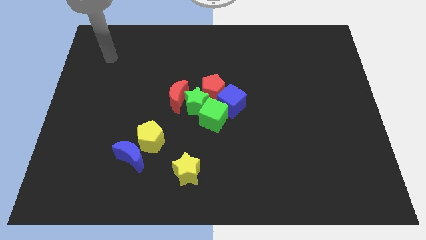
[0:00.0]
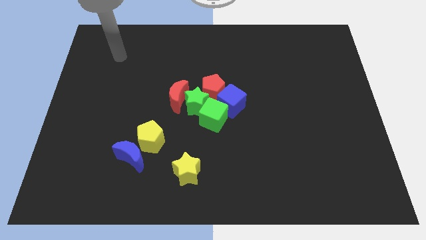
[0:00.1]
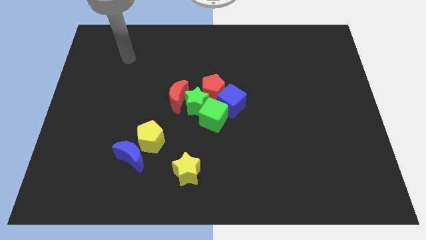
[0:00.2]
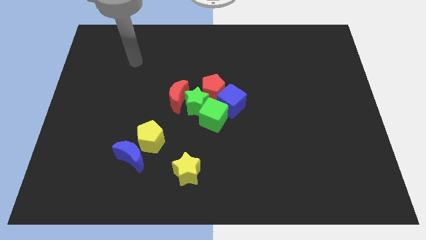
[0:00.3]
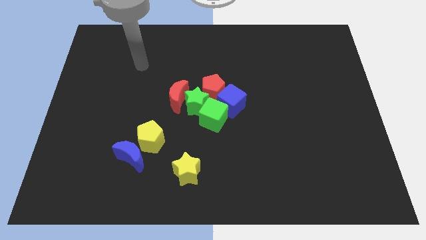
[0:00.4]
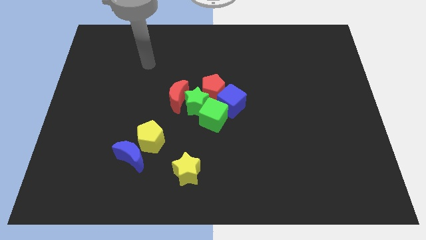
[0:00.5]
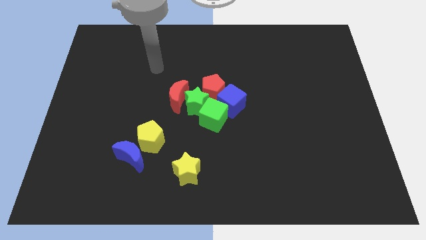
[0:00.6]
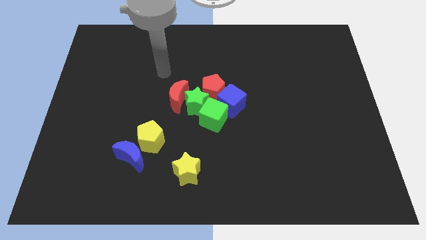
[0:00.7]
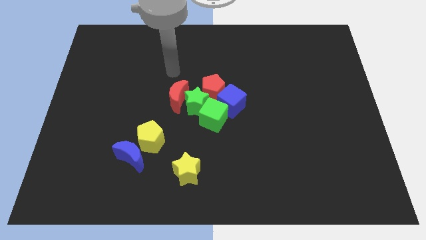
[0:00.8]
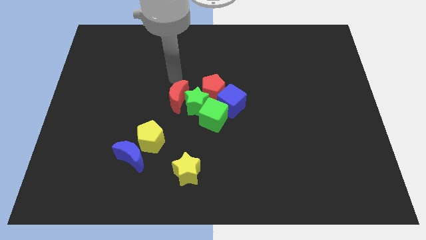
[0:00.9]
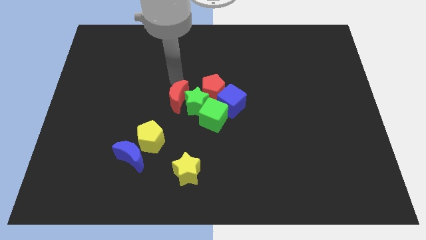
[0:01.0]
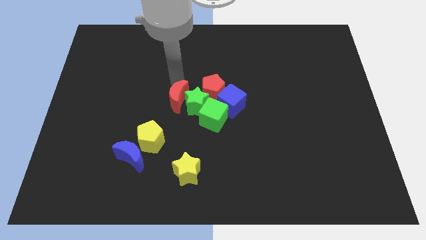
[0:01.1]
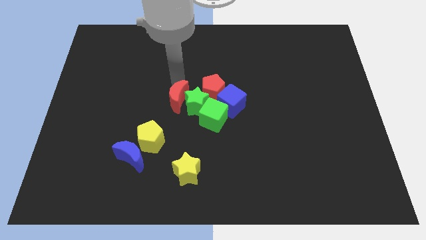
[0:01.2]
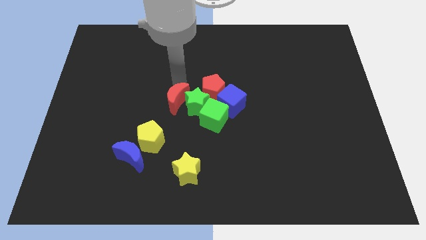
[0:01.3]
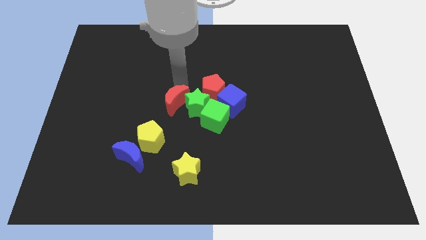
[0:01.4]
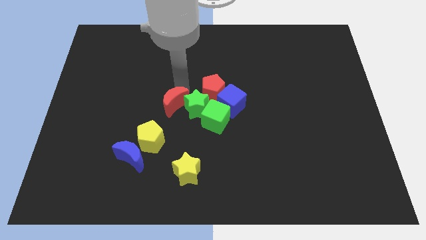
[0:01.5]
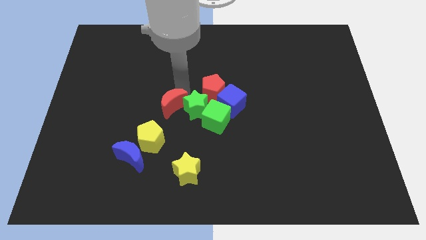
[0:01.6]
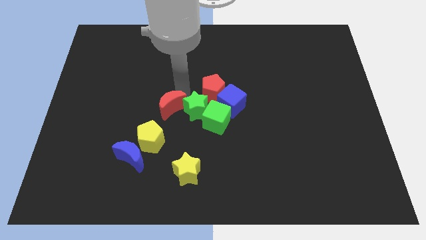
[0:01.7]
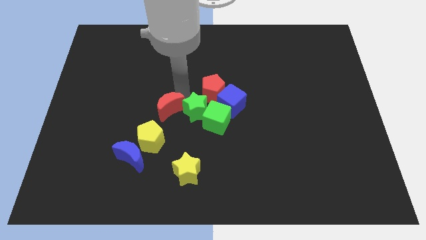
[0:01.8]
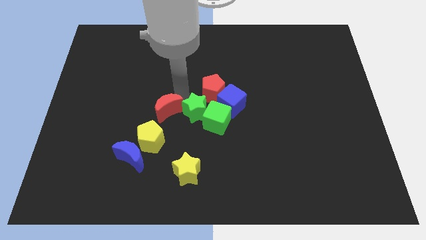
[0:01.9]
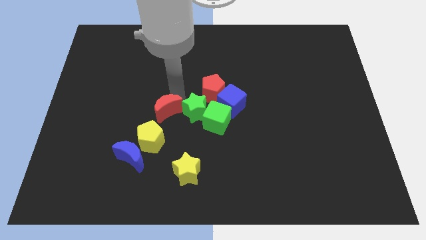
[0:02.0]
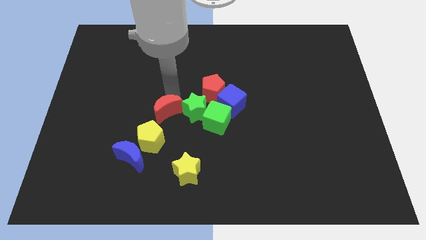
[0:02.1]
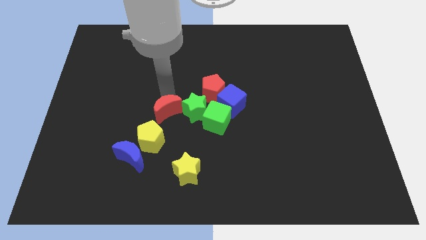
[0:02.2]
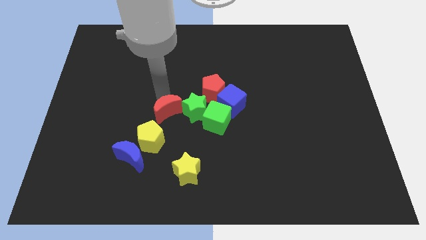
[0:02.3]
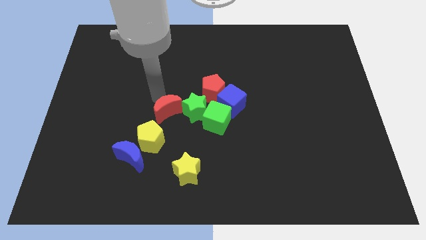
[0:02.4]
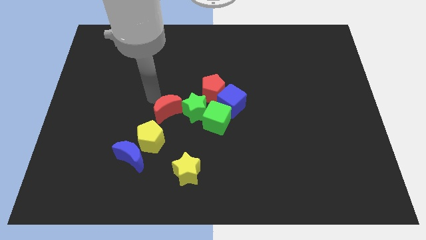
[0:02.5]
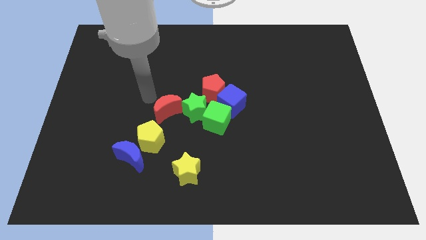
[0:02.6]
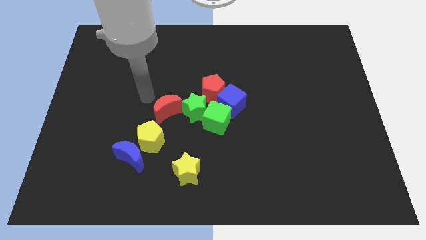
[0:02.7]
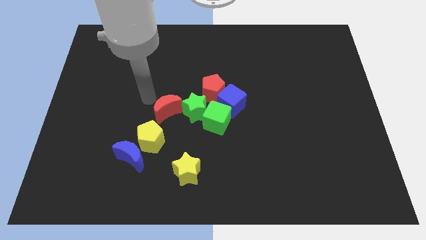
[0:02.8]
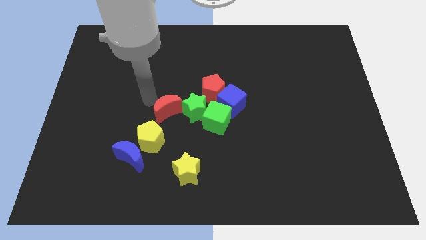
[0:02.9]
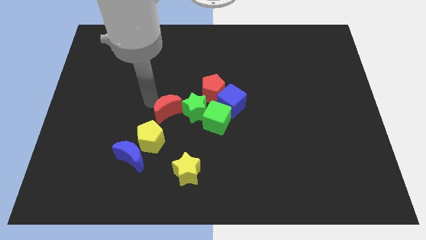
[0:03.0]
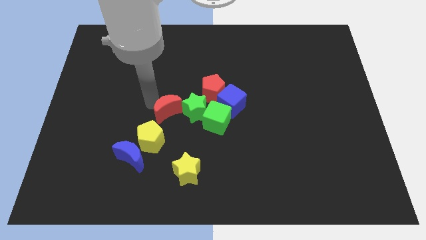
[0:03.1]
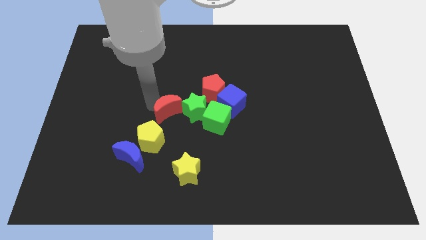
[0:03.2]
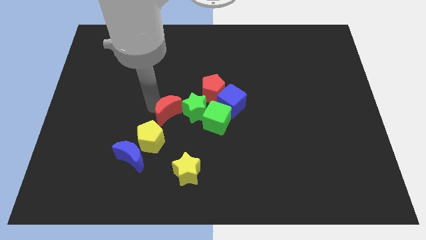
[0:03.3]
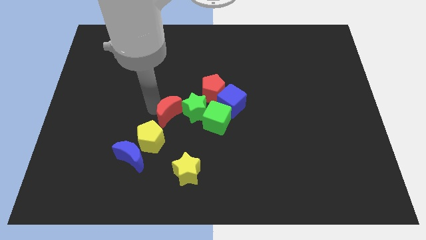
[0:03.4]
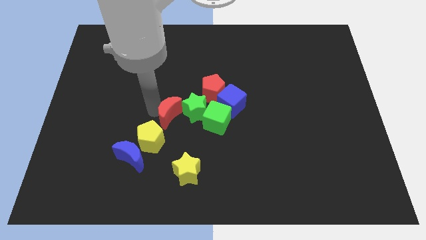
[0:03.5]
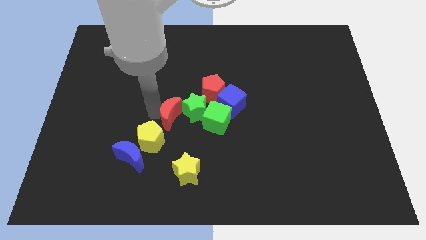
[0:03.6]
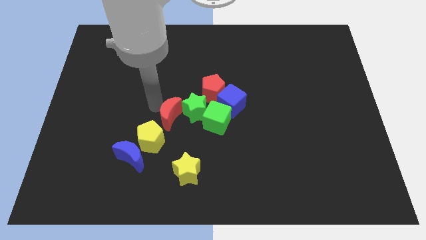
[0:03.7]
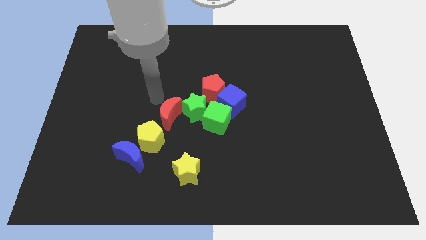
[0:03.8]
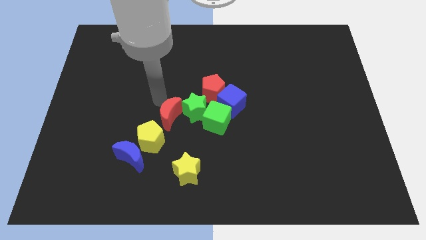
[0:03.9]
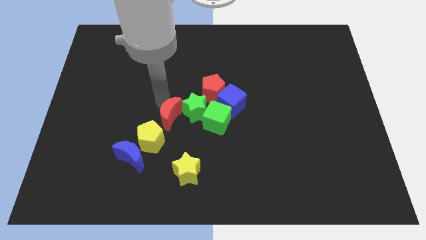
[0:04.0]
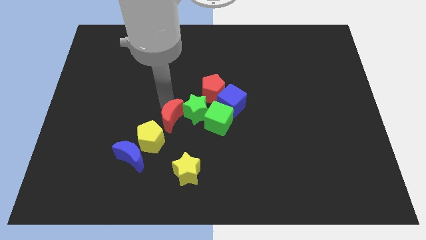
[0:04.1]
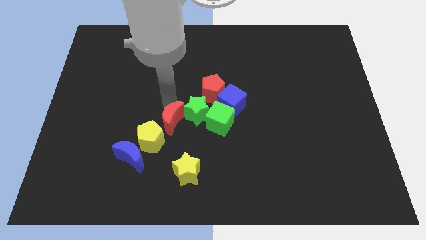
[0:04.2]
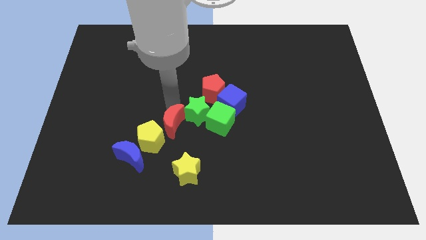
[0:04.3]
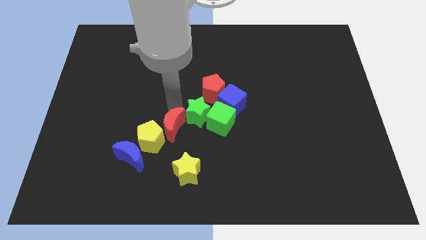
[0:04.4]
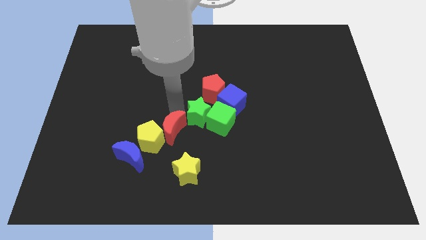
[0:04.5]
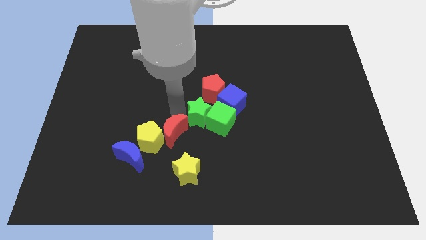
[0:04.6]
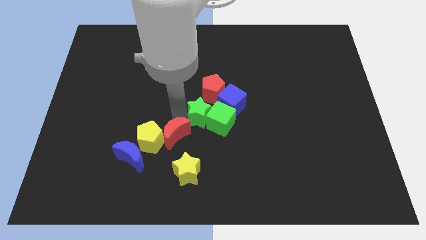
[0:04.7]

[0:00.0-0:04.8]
put the red moon to the bottom of the green star

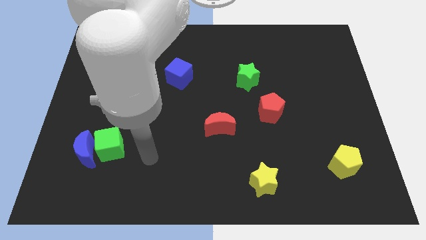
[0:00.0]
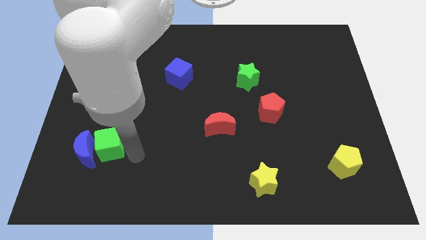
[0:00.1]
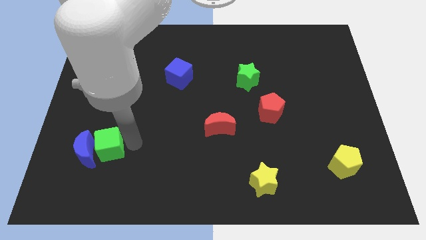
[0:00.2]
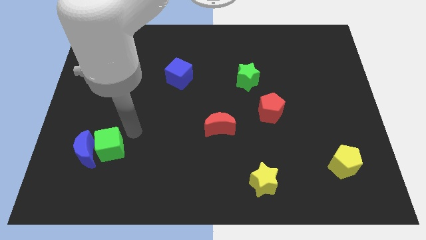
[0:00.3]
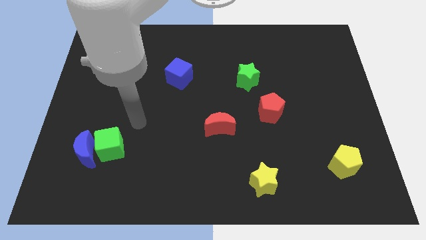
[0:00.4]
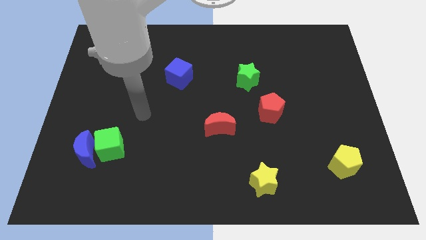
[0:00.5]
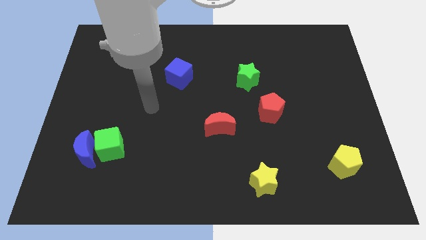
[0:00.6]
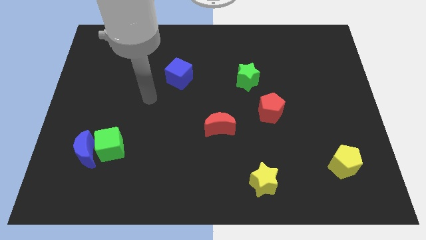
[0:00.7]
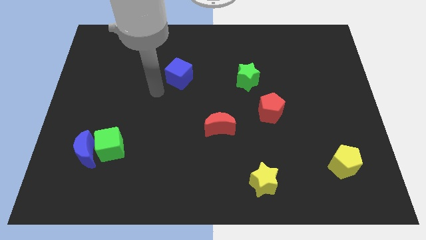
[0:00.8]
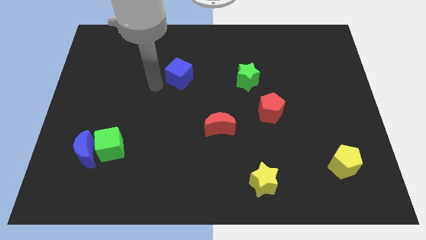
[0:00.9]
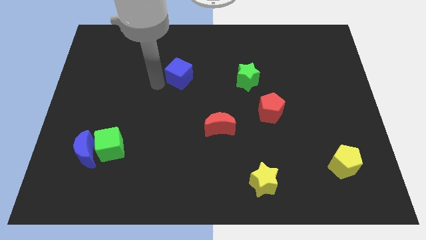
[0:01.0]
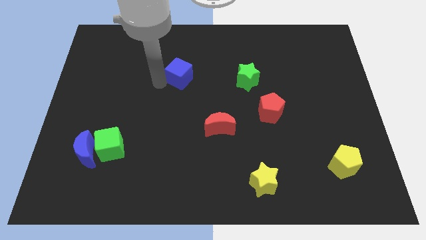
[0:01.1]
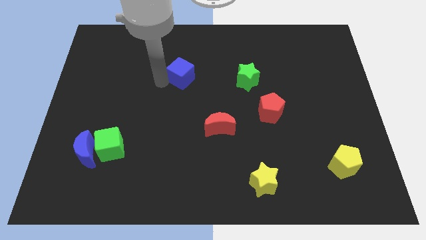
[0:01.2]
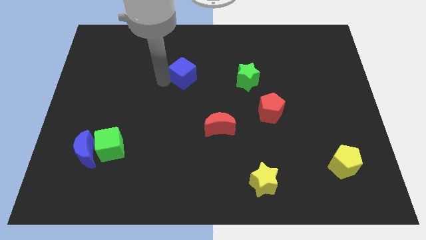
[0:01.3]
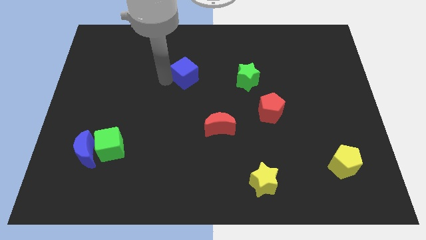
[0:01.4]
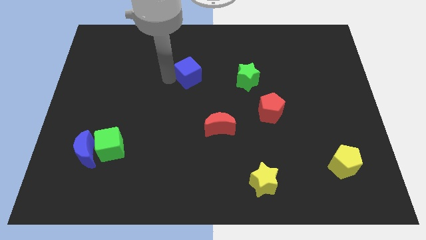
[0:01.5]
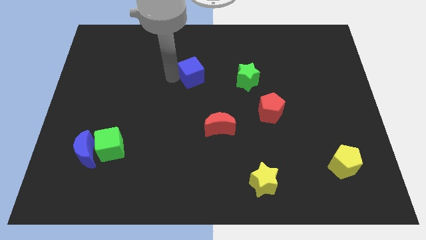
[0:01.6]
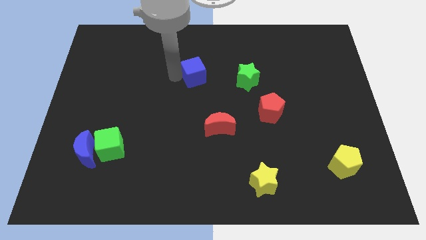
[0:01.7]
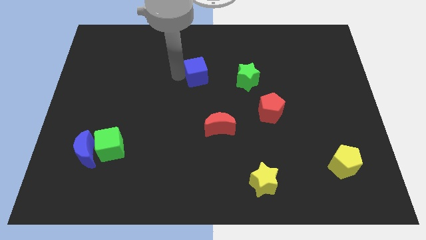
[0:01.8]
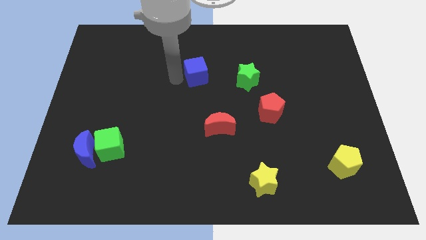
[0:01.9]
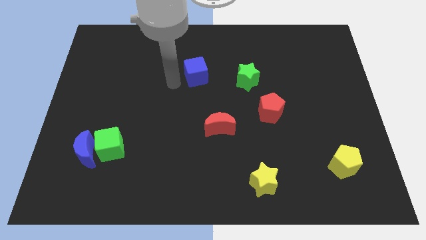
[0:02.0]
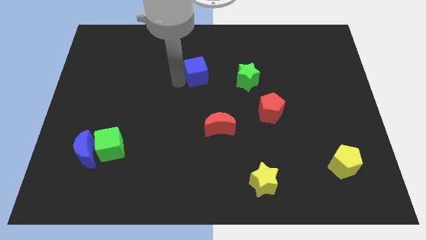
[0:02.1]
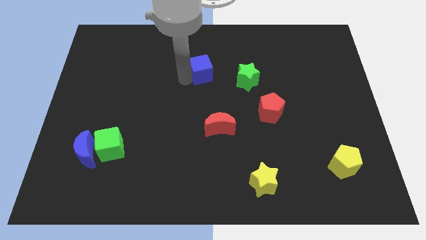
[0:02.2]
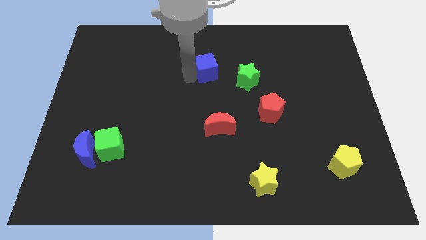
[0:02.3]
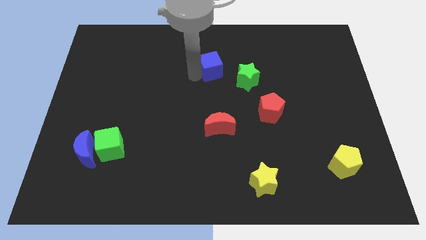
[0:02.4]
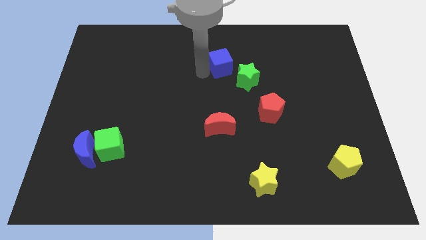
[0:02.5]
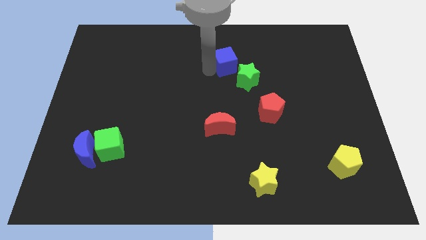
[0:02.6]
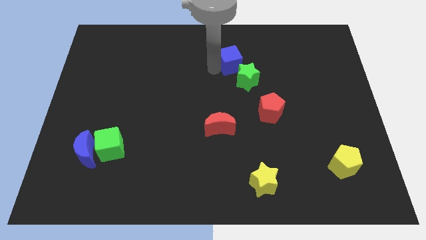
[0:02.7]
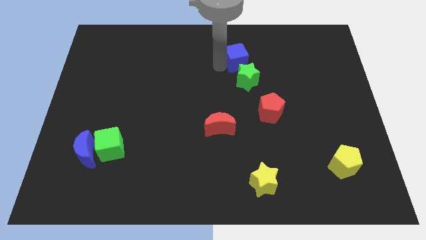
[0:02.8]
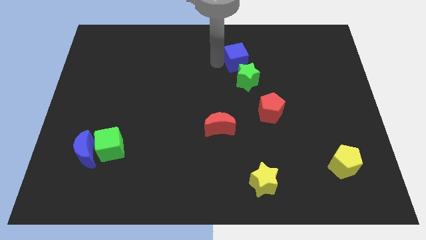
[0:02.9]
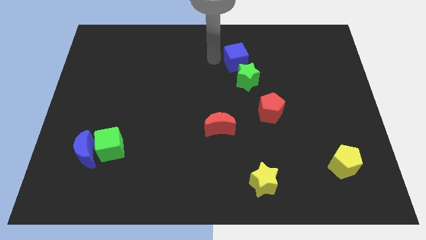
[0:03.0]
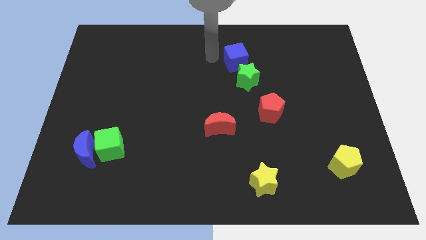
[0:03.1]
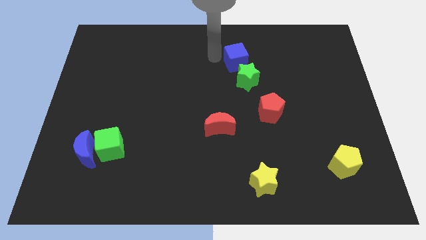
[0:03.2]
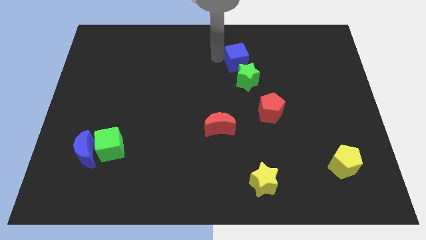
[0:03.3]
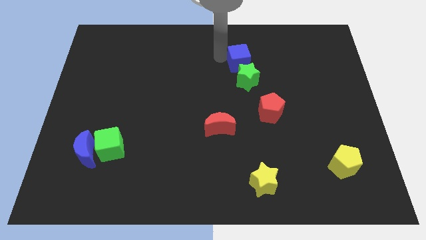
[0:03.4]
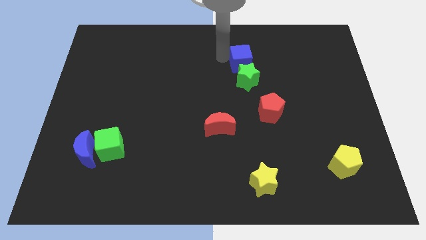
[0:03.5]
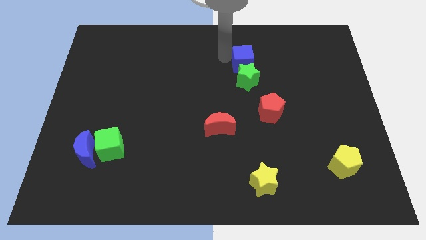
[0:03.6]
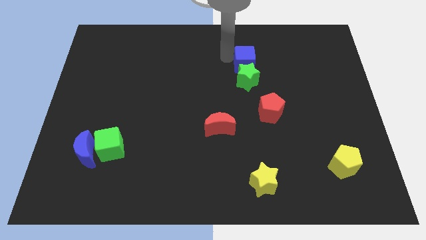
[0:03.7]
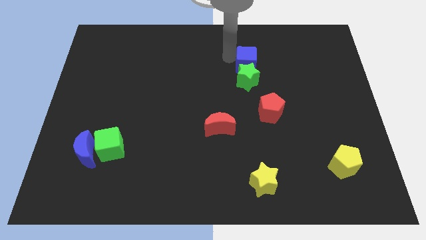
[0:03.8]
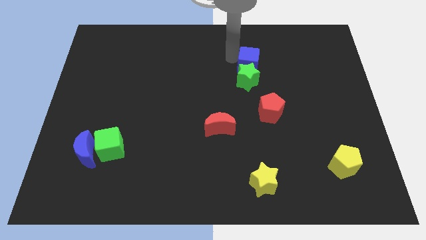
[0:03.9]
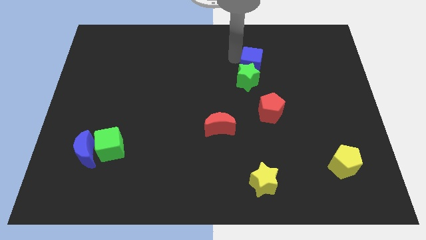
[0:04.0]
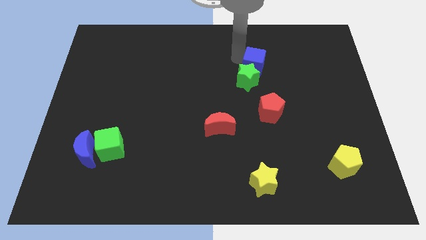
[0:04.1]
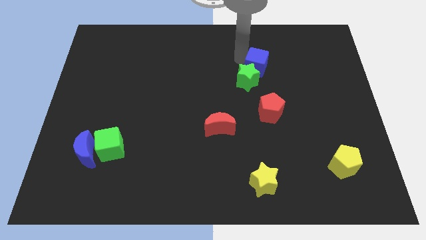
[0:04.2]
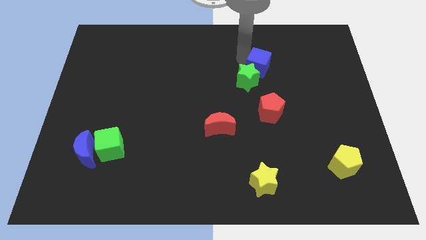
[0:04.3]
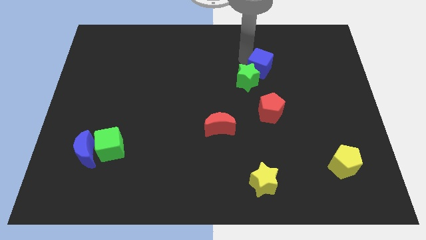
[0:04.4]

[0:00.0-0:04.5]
slide the blue cube to the right side of the green star
